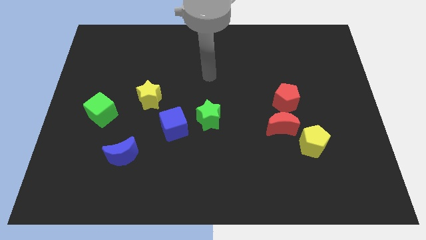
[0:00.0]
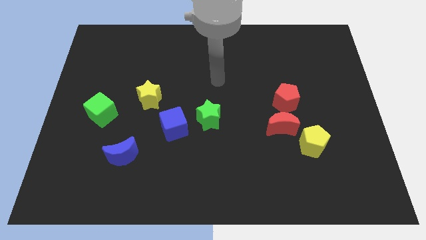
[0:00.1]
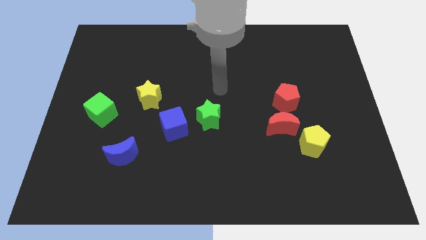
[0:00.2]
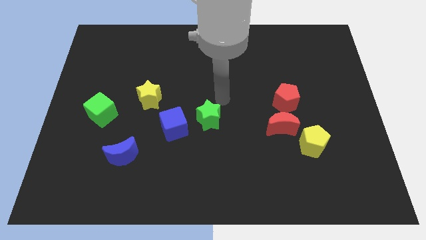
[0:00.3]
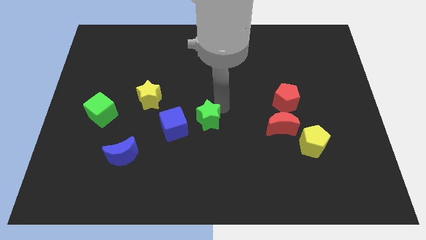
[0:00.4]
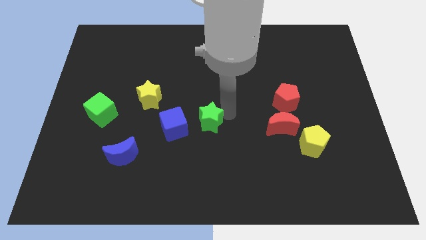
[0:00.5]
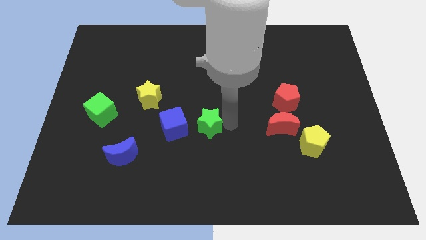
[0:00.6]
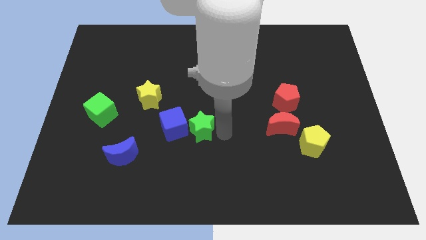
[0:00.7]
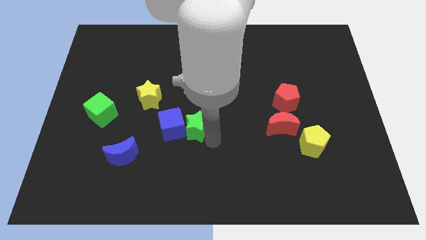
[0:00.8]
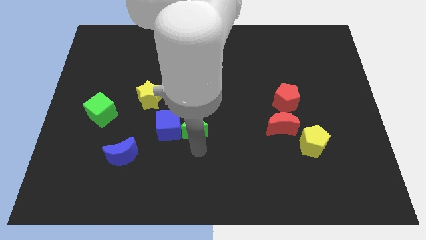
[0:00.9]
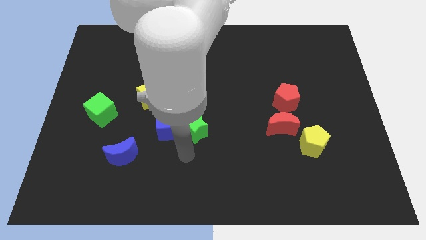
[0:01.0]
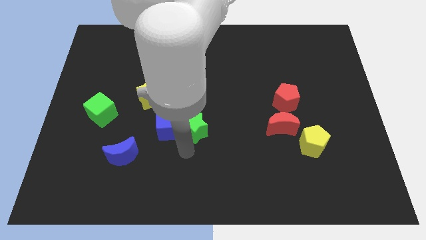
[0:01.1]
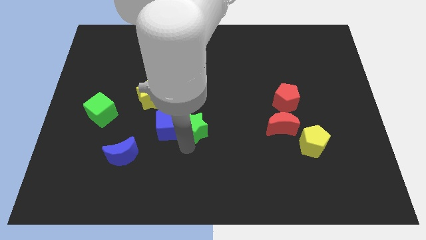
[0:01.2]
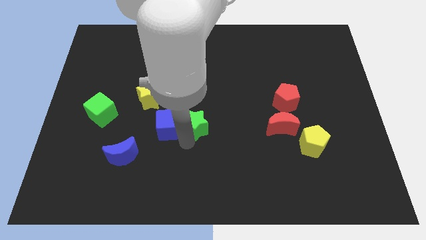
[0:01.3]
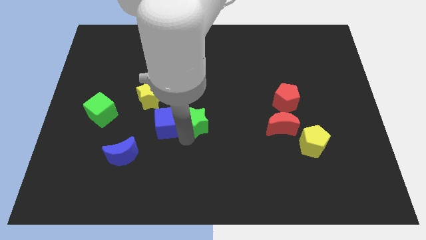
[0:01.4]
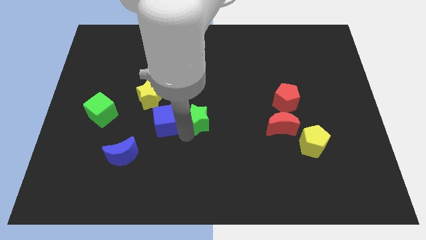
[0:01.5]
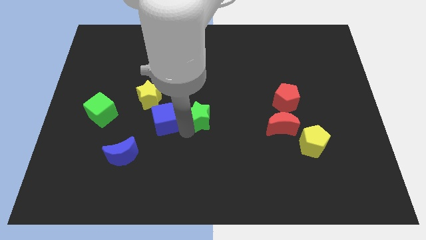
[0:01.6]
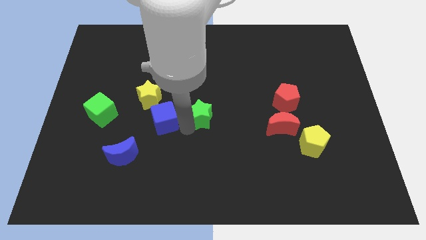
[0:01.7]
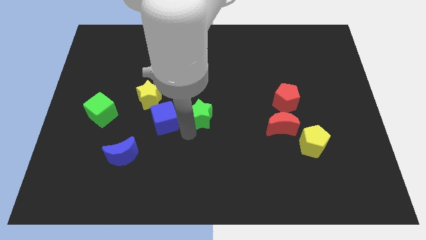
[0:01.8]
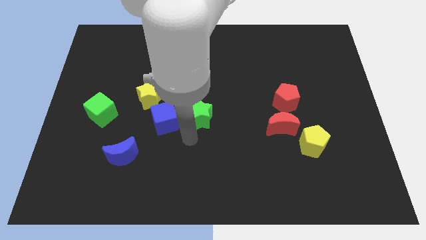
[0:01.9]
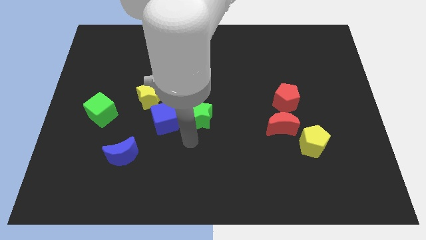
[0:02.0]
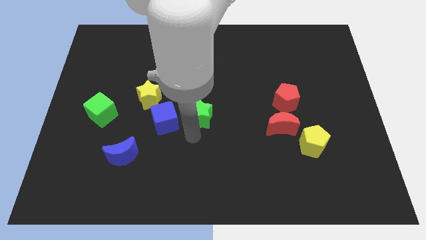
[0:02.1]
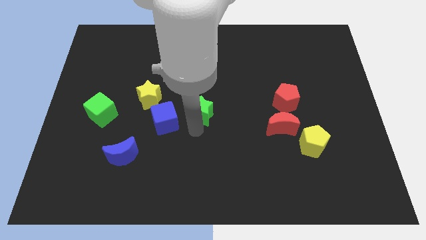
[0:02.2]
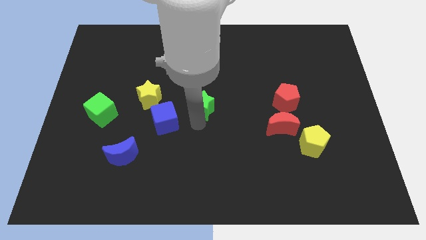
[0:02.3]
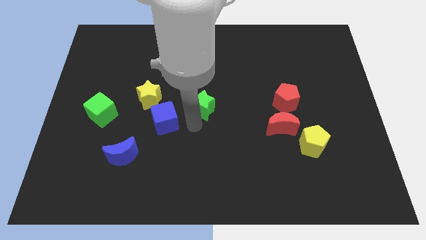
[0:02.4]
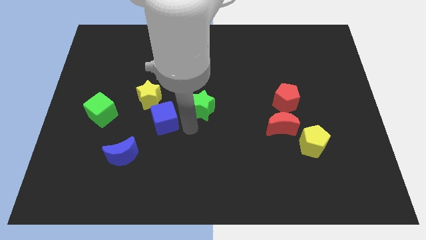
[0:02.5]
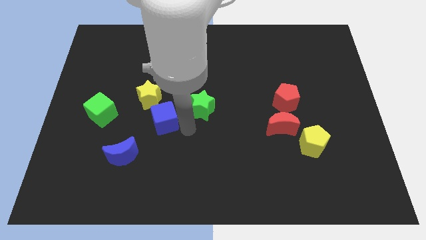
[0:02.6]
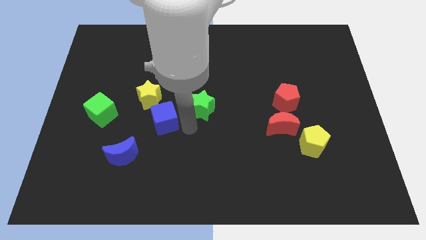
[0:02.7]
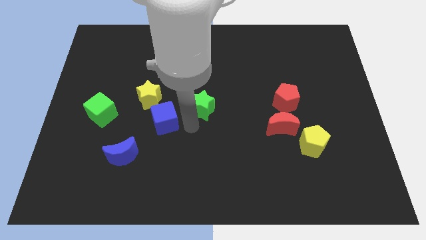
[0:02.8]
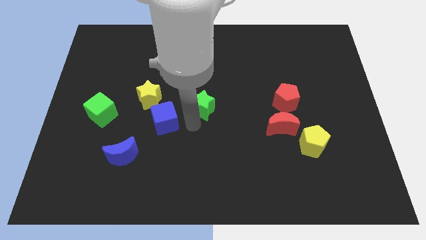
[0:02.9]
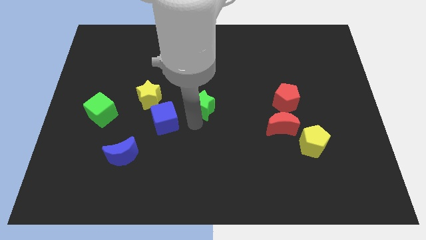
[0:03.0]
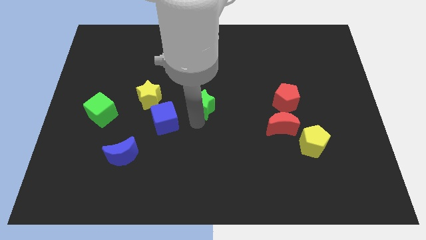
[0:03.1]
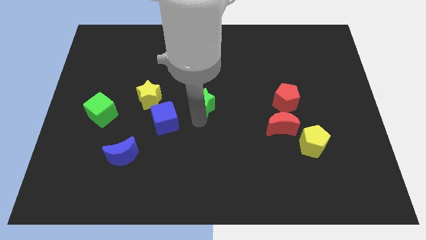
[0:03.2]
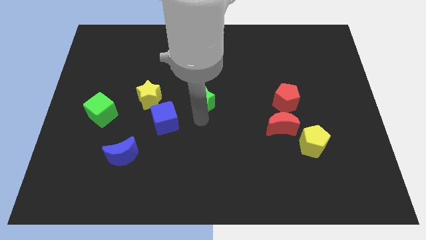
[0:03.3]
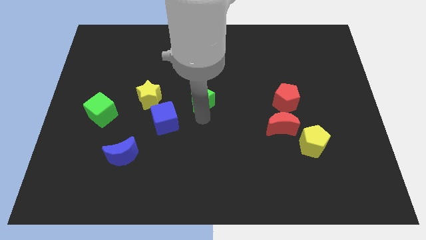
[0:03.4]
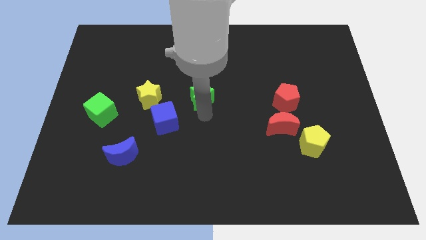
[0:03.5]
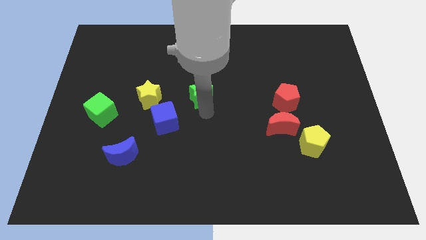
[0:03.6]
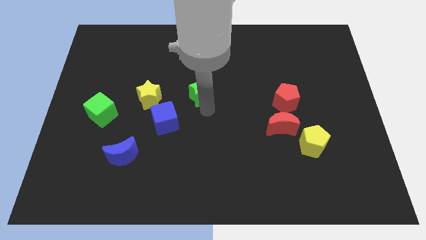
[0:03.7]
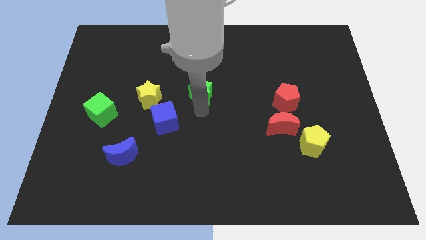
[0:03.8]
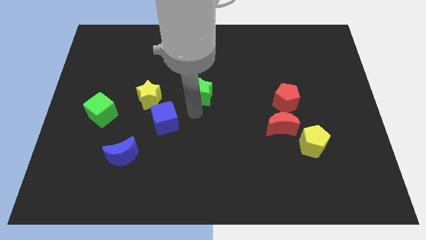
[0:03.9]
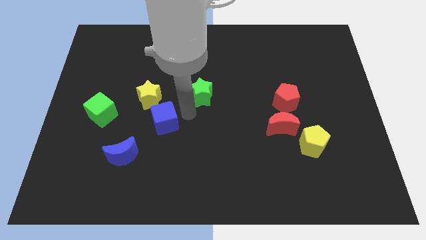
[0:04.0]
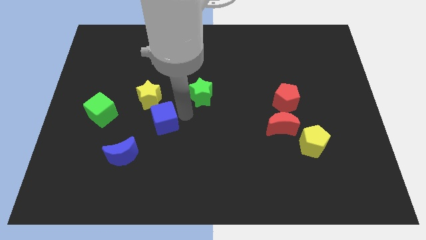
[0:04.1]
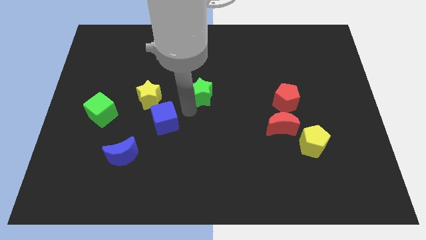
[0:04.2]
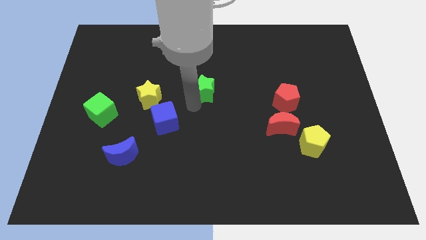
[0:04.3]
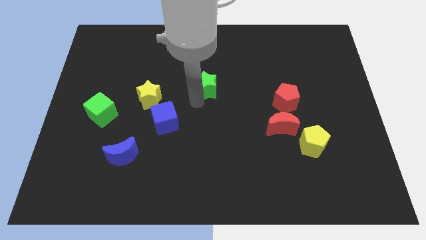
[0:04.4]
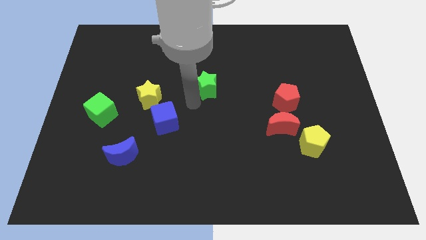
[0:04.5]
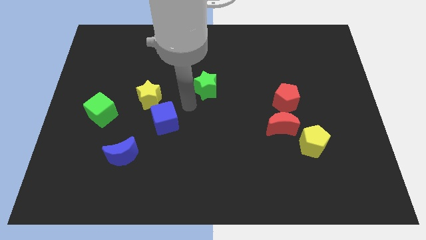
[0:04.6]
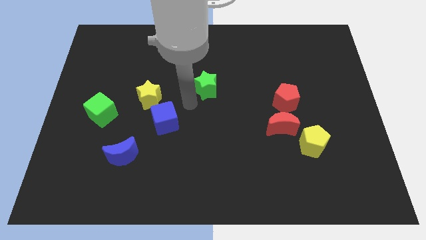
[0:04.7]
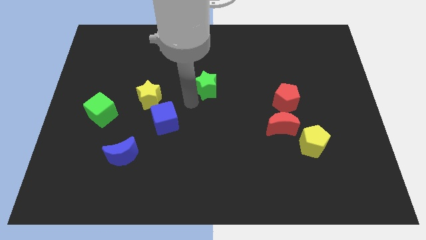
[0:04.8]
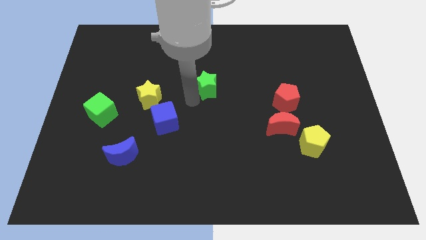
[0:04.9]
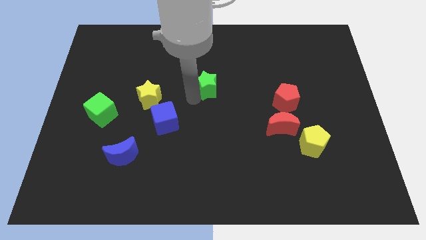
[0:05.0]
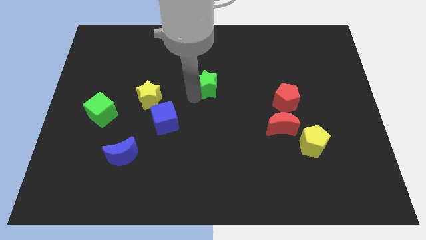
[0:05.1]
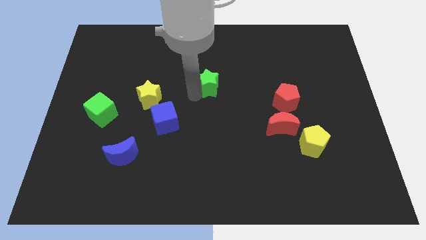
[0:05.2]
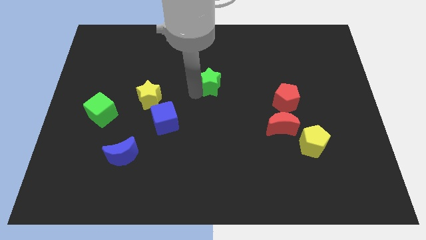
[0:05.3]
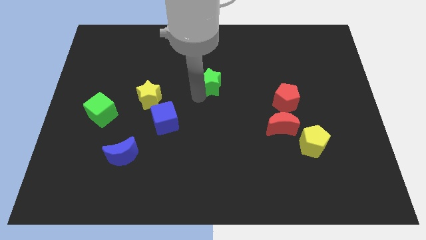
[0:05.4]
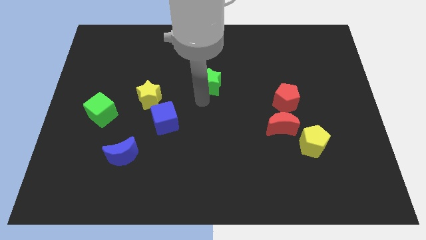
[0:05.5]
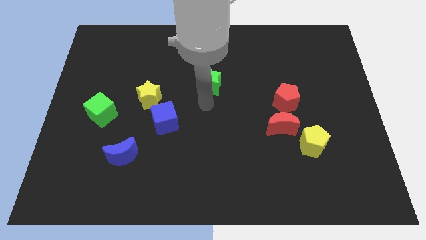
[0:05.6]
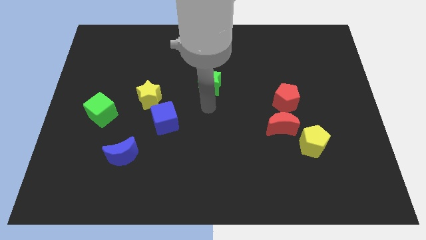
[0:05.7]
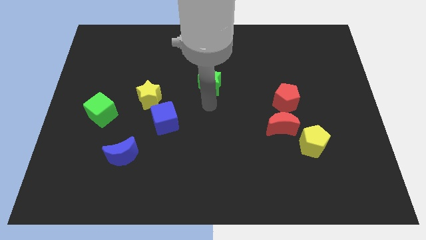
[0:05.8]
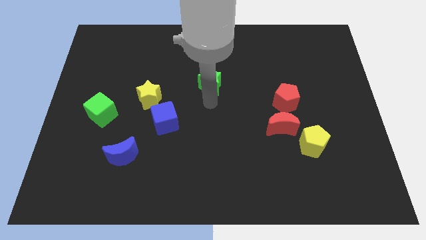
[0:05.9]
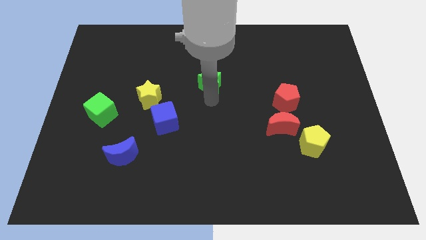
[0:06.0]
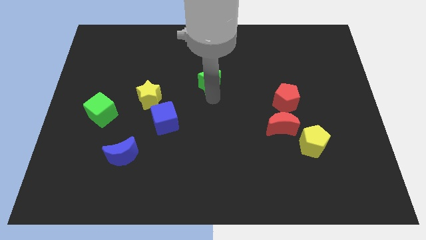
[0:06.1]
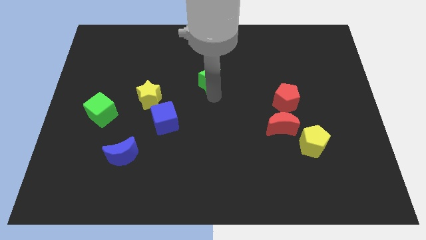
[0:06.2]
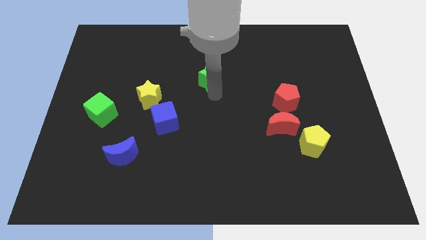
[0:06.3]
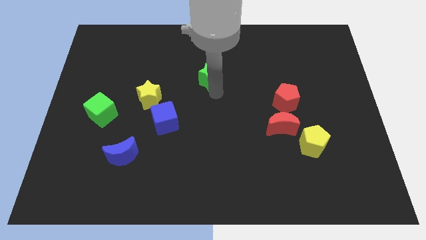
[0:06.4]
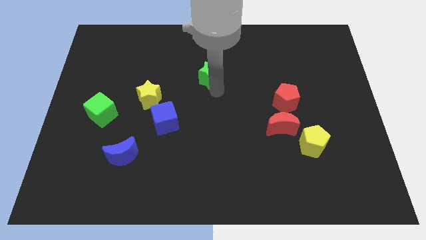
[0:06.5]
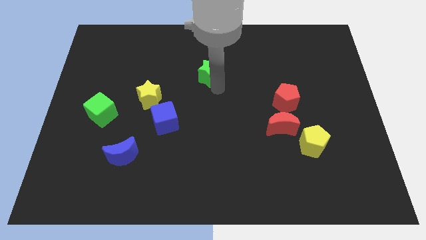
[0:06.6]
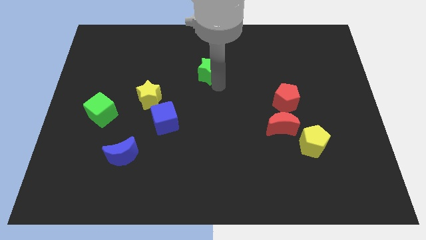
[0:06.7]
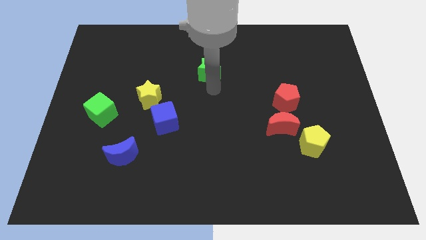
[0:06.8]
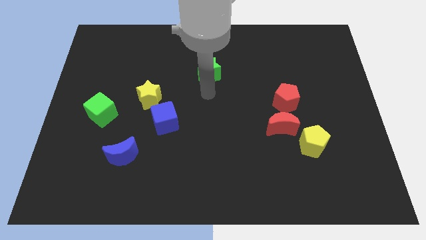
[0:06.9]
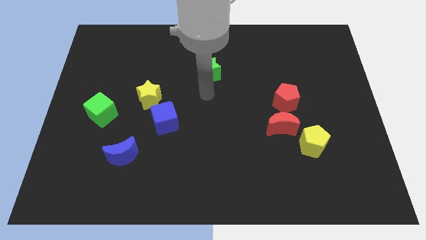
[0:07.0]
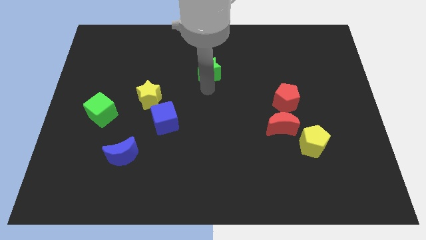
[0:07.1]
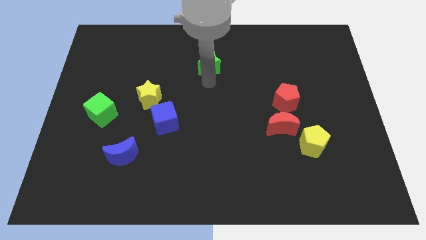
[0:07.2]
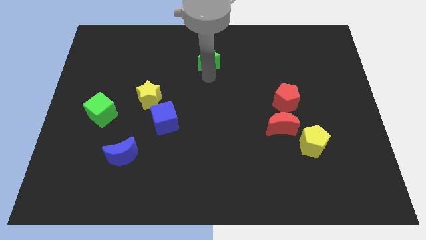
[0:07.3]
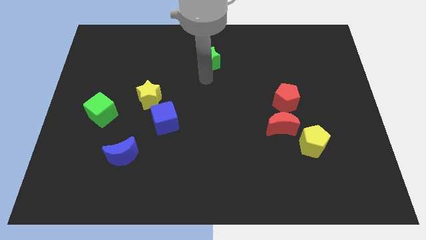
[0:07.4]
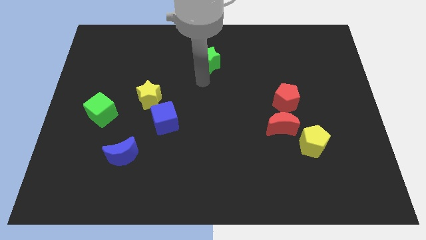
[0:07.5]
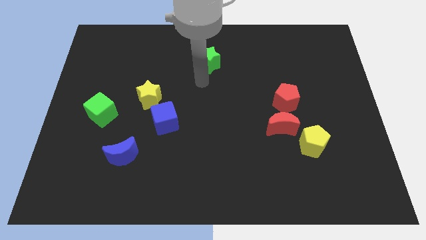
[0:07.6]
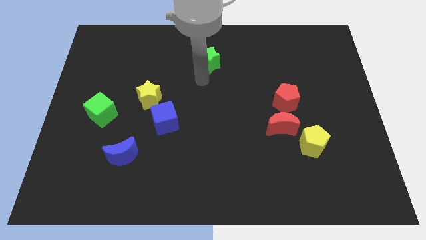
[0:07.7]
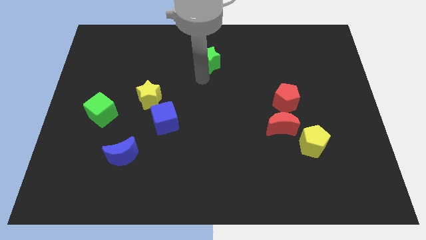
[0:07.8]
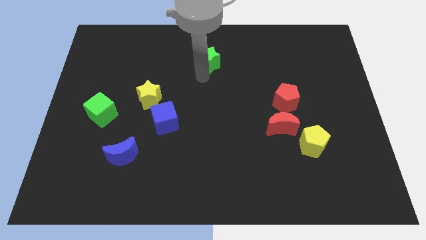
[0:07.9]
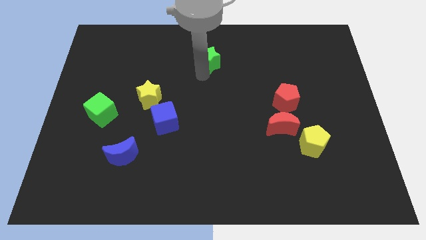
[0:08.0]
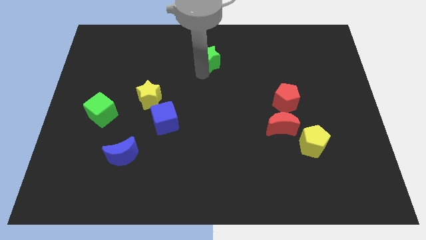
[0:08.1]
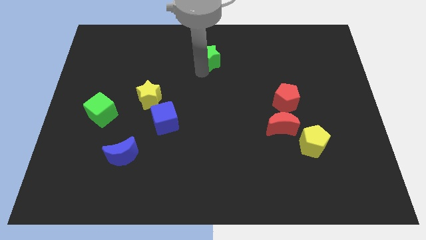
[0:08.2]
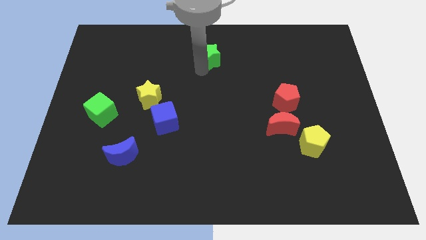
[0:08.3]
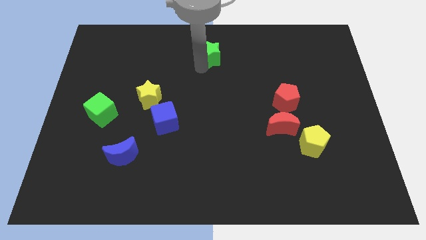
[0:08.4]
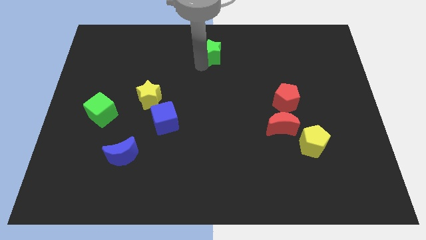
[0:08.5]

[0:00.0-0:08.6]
slide the green star to the top side
